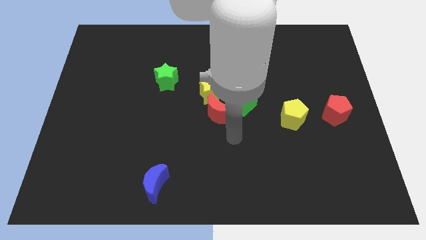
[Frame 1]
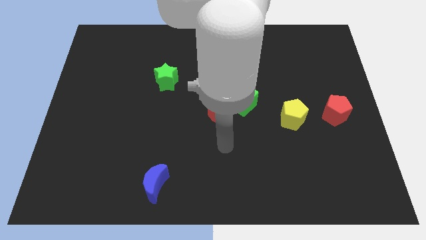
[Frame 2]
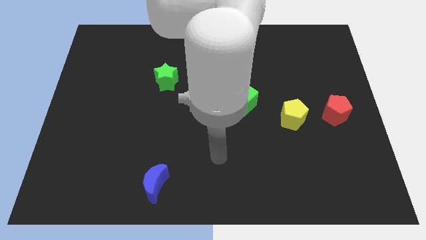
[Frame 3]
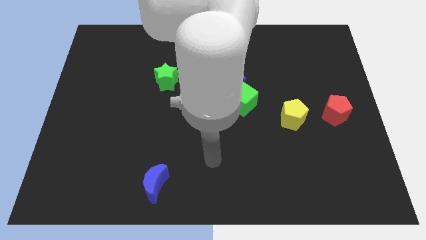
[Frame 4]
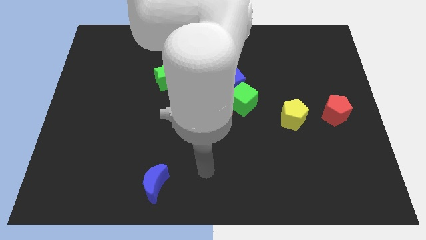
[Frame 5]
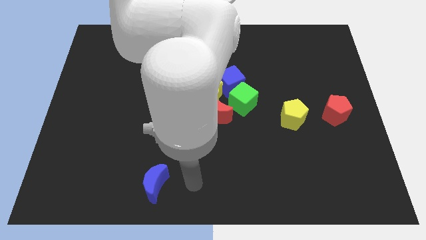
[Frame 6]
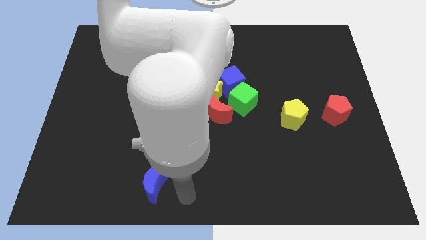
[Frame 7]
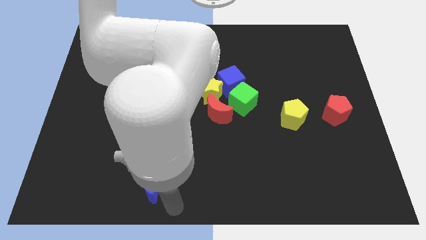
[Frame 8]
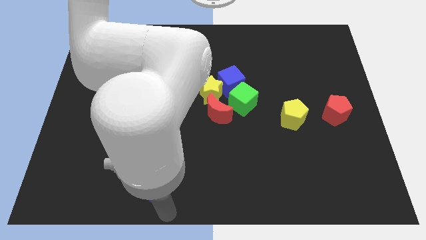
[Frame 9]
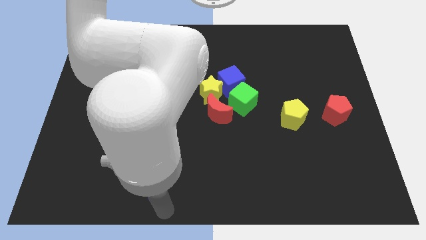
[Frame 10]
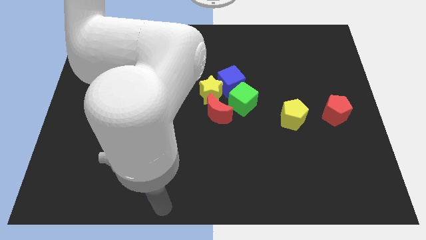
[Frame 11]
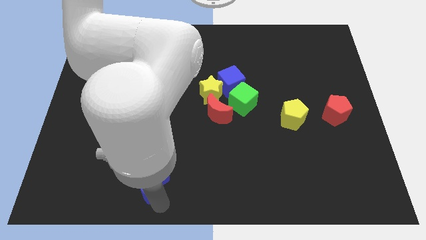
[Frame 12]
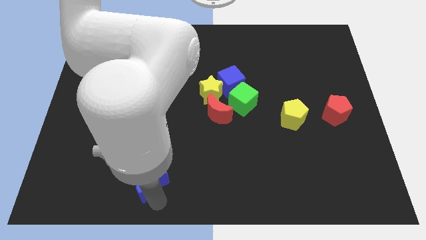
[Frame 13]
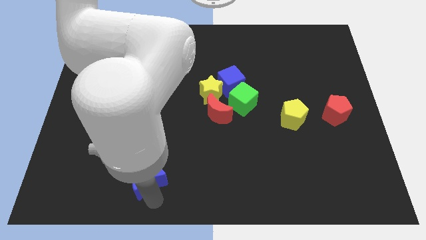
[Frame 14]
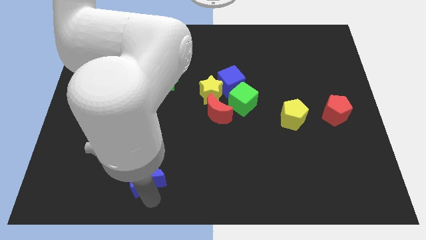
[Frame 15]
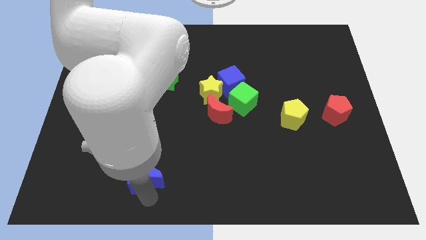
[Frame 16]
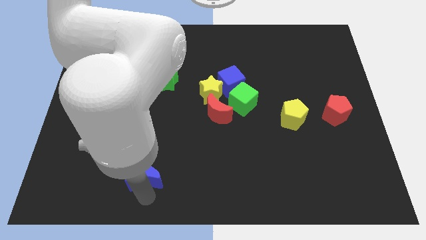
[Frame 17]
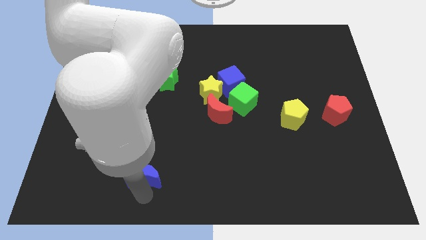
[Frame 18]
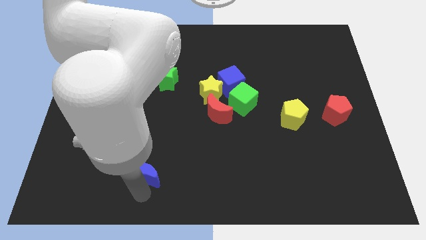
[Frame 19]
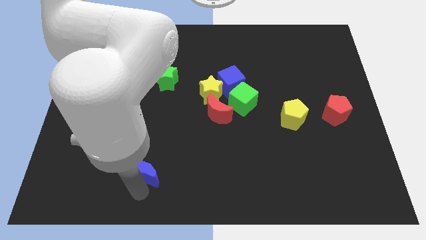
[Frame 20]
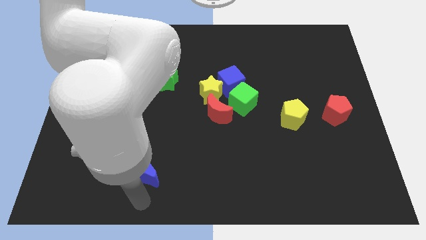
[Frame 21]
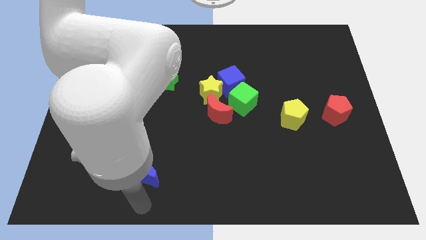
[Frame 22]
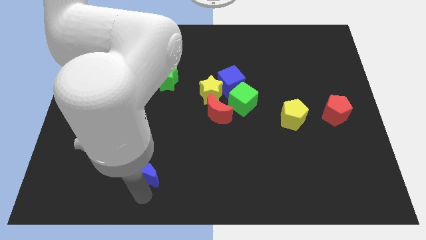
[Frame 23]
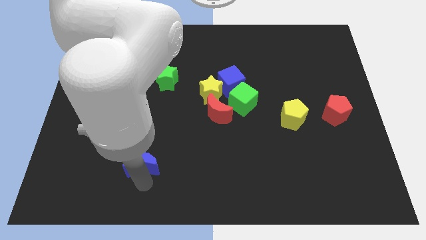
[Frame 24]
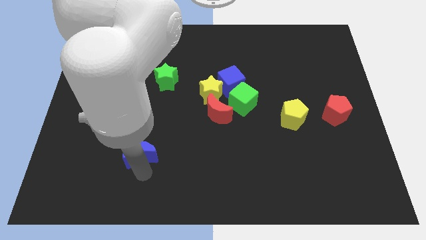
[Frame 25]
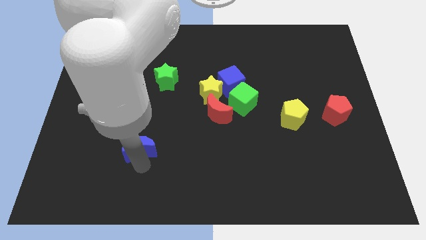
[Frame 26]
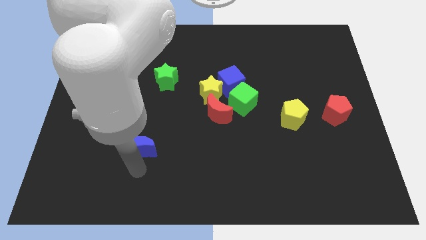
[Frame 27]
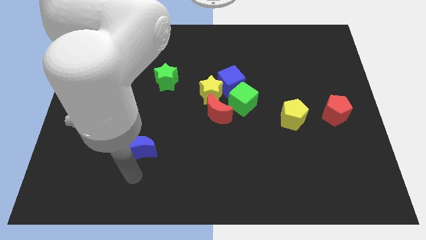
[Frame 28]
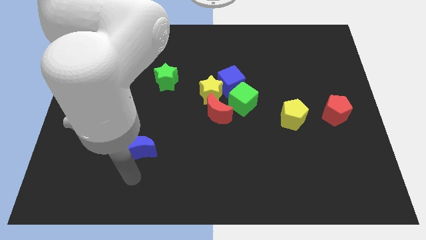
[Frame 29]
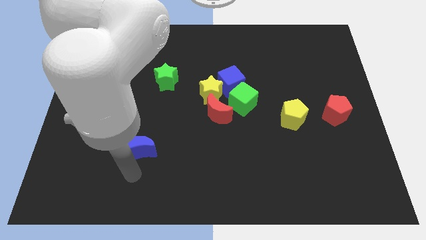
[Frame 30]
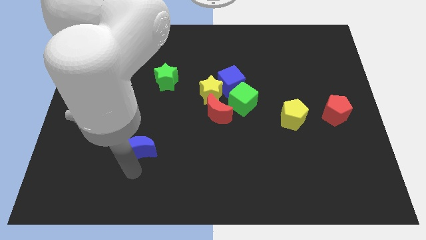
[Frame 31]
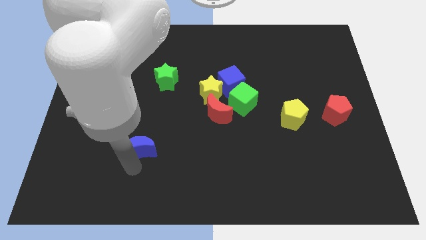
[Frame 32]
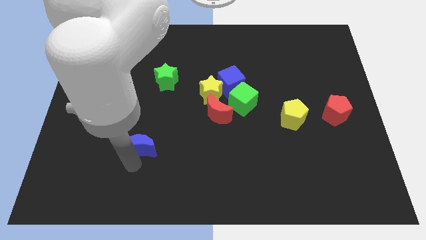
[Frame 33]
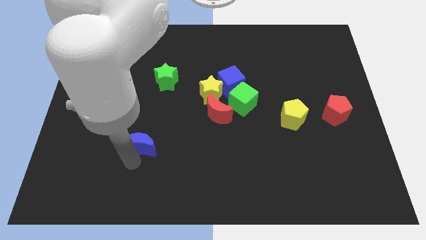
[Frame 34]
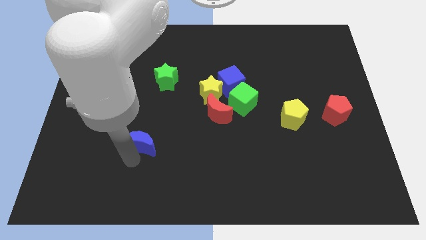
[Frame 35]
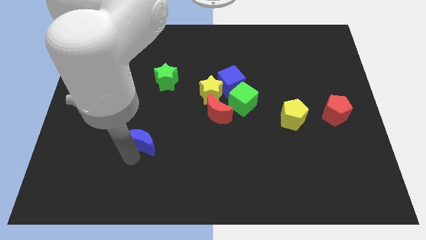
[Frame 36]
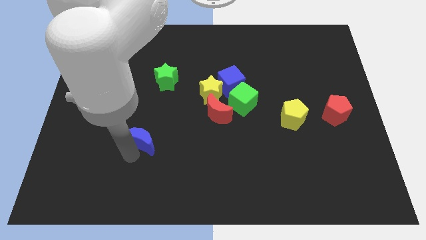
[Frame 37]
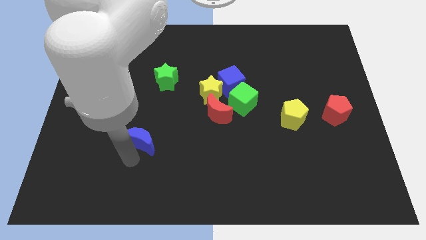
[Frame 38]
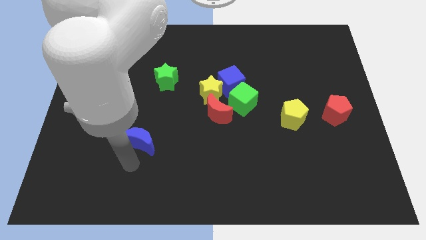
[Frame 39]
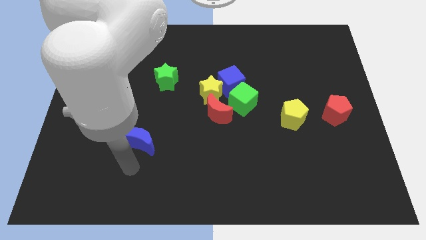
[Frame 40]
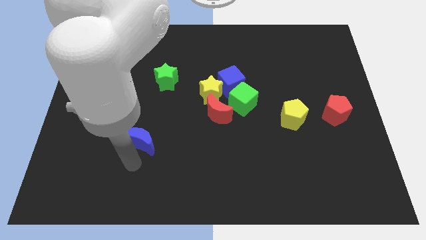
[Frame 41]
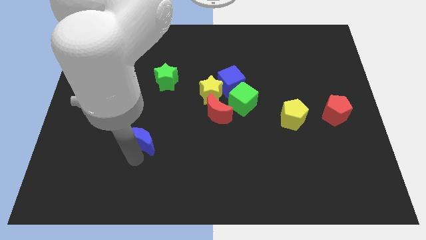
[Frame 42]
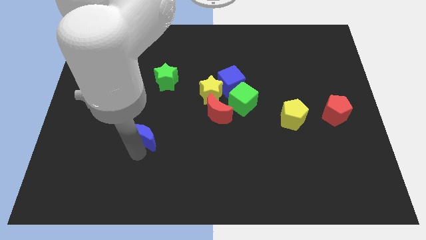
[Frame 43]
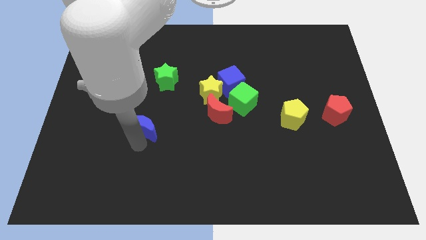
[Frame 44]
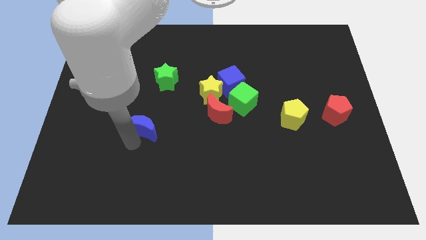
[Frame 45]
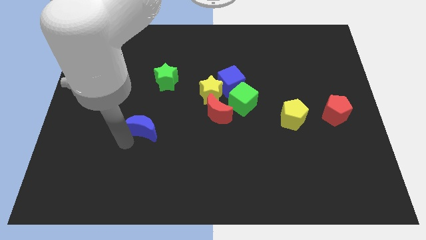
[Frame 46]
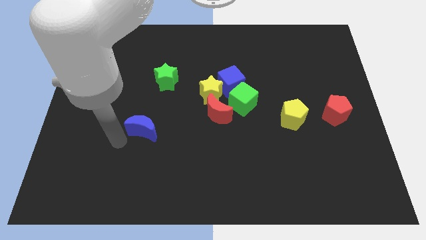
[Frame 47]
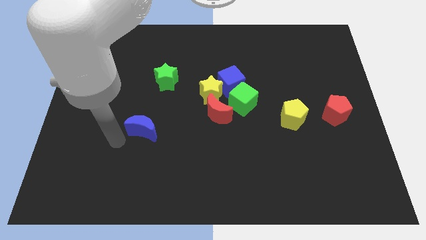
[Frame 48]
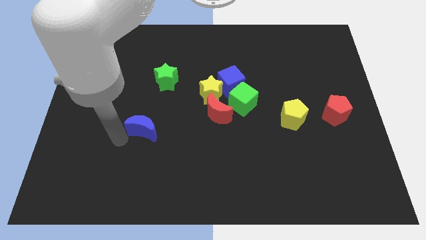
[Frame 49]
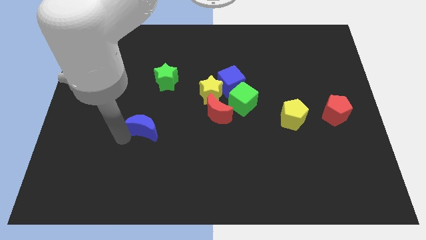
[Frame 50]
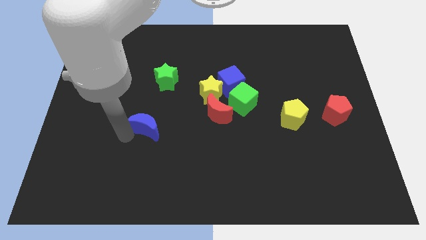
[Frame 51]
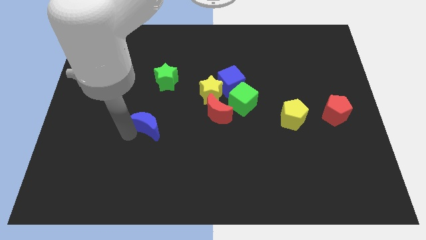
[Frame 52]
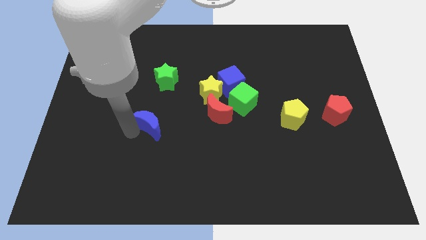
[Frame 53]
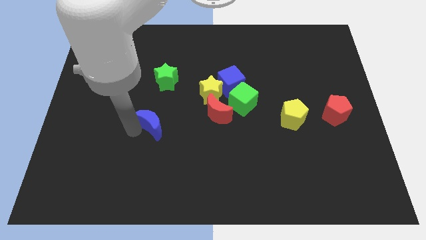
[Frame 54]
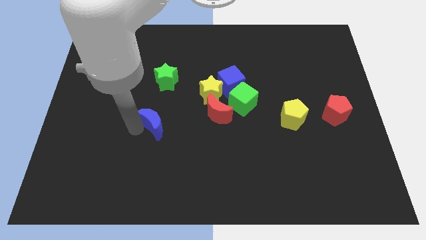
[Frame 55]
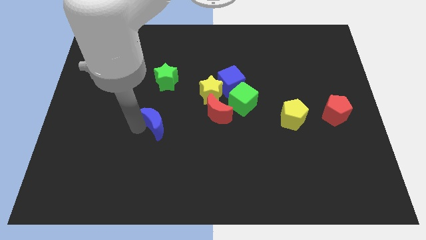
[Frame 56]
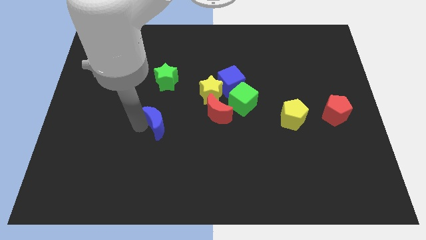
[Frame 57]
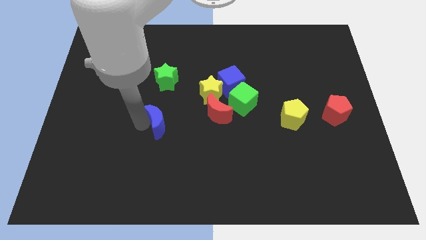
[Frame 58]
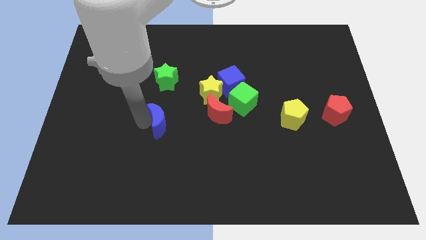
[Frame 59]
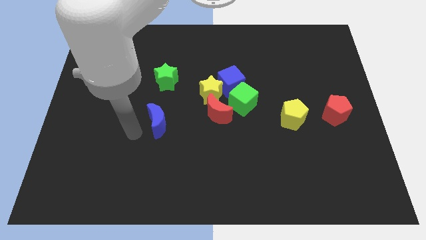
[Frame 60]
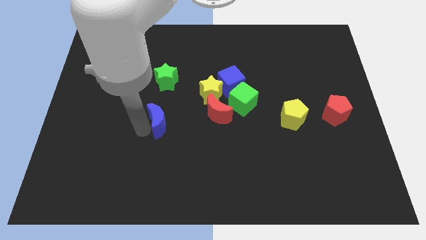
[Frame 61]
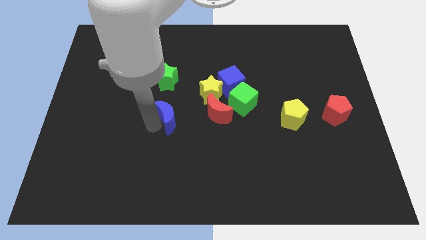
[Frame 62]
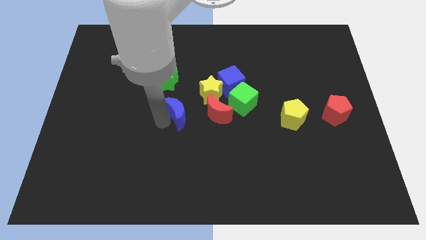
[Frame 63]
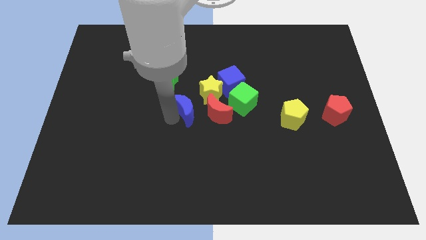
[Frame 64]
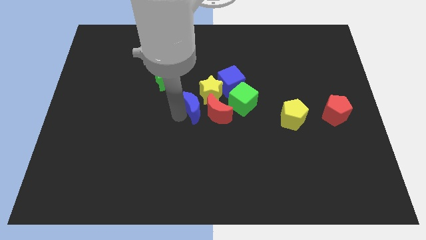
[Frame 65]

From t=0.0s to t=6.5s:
move the blue moon diagonally down and to the left of the blue cube

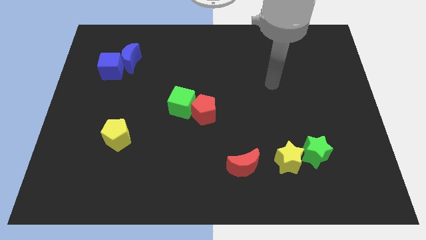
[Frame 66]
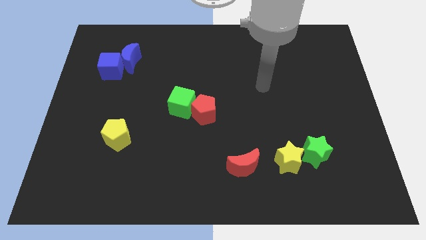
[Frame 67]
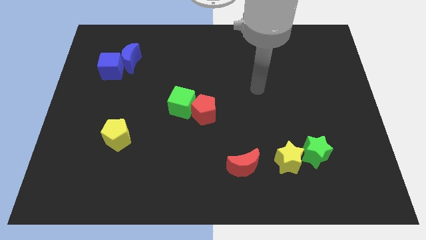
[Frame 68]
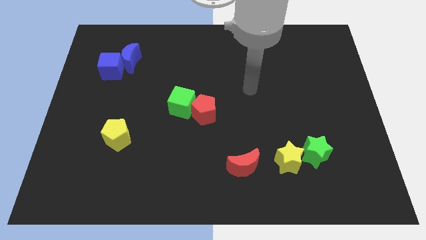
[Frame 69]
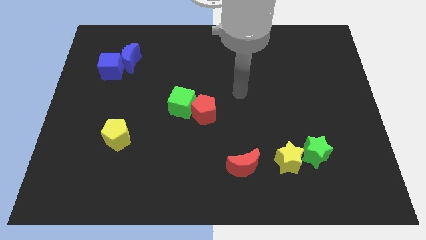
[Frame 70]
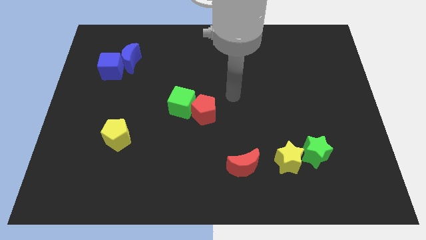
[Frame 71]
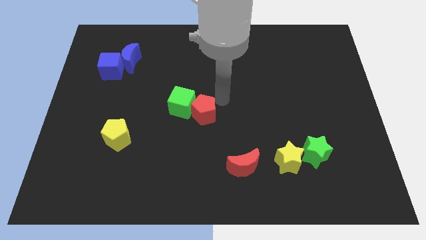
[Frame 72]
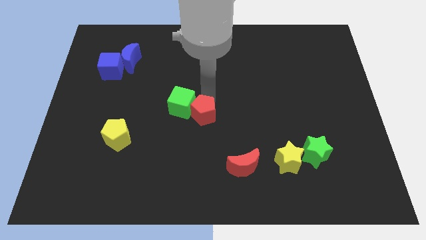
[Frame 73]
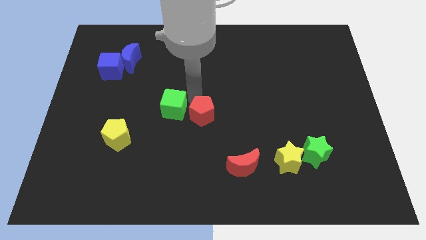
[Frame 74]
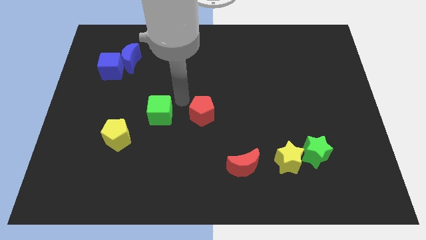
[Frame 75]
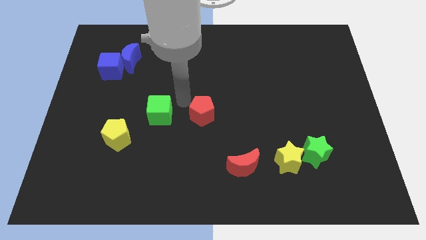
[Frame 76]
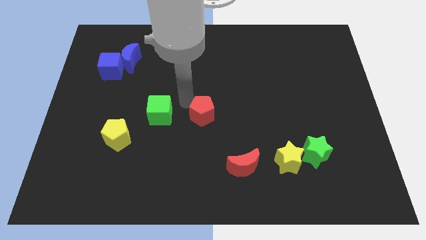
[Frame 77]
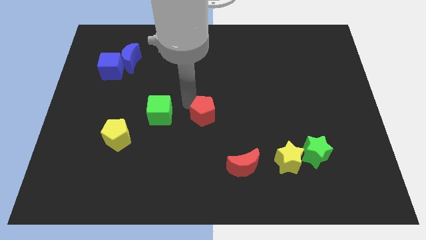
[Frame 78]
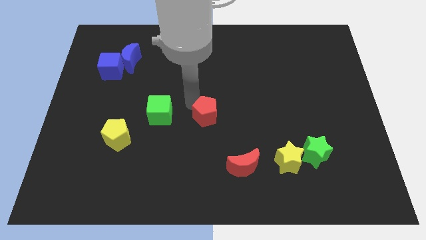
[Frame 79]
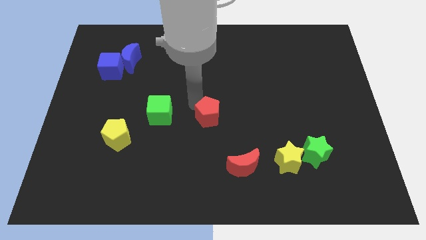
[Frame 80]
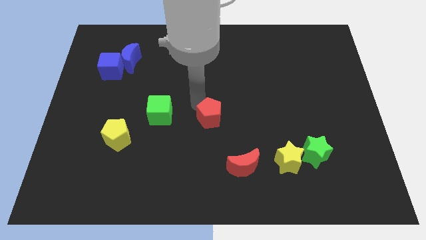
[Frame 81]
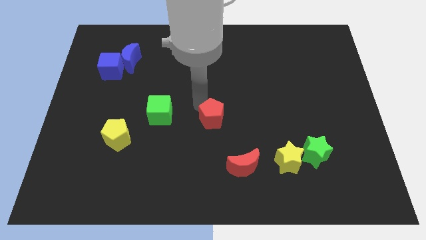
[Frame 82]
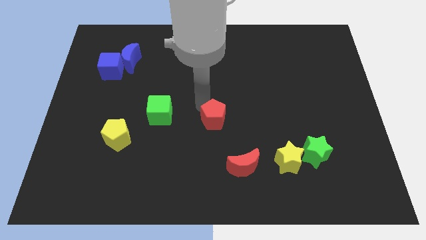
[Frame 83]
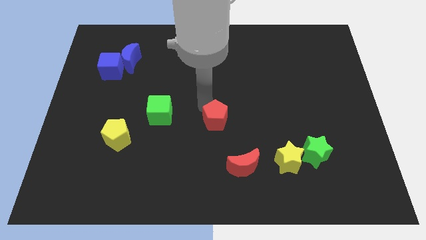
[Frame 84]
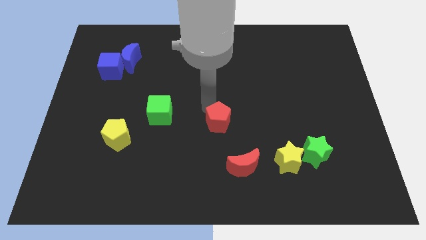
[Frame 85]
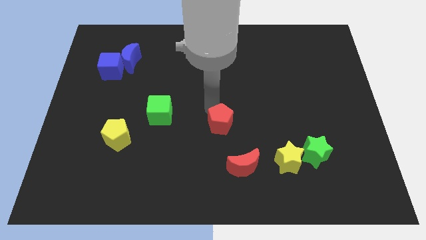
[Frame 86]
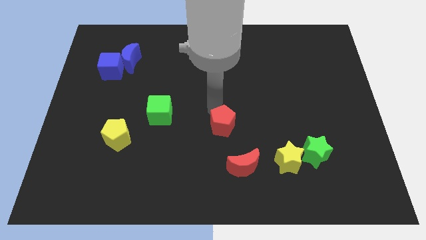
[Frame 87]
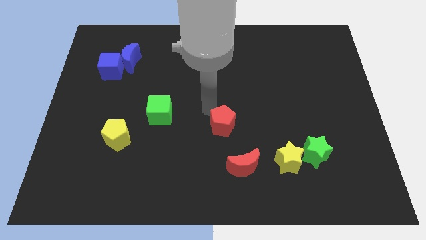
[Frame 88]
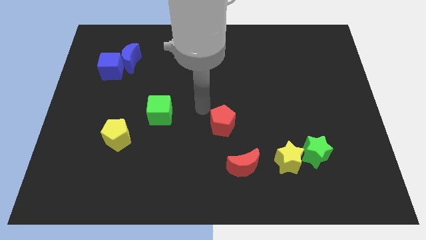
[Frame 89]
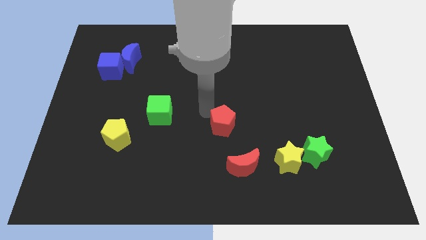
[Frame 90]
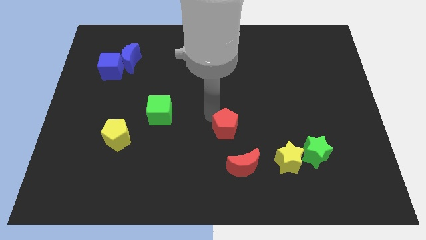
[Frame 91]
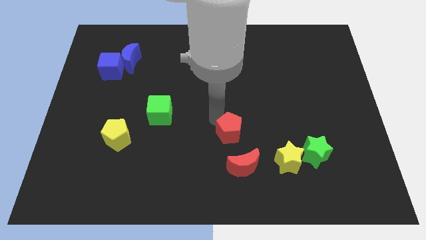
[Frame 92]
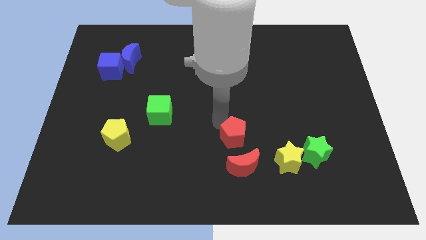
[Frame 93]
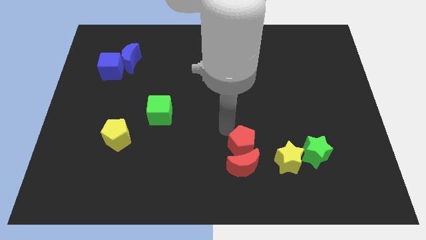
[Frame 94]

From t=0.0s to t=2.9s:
slide the red pentagon to the left side of the green star
